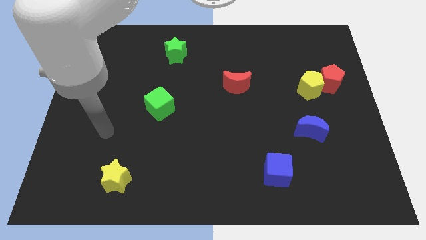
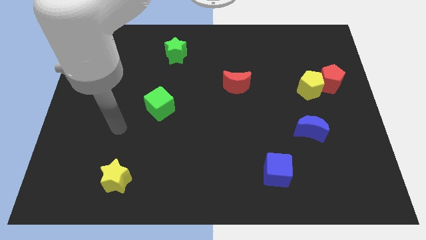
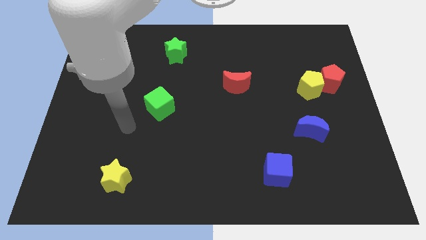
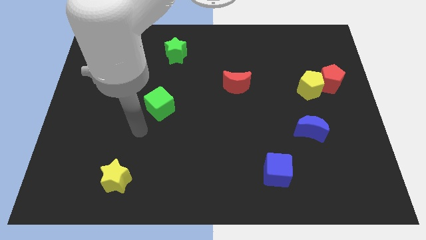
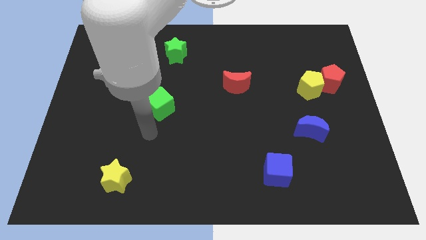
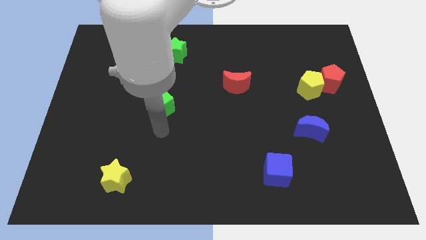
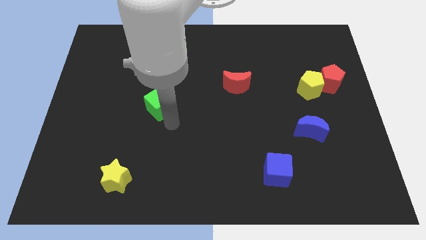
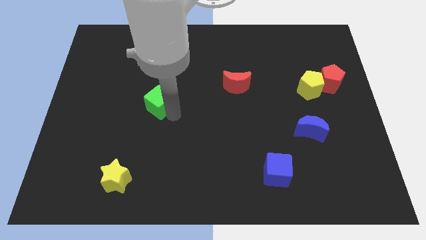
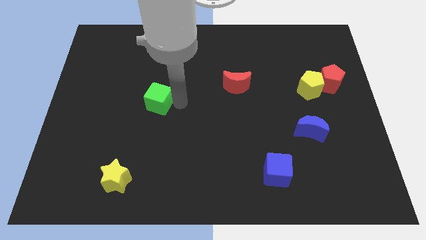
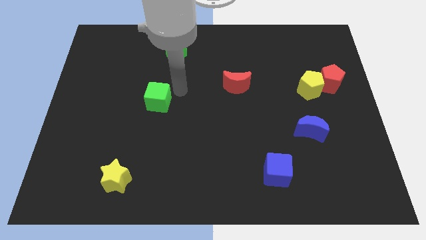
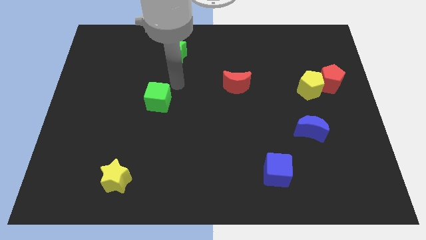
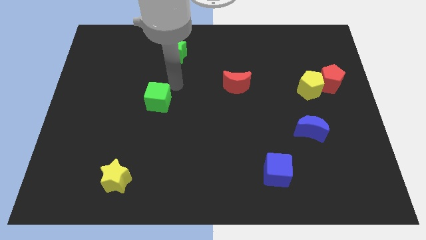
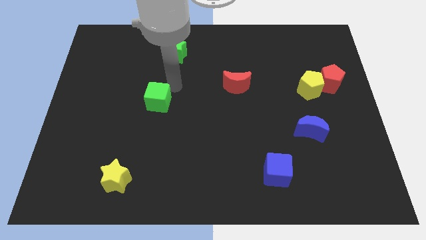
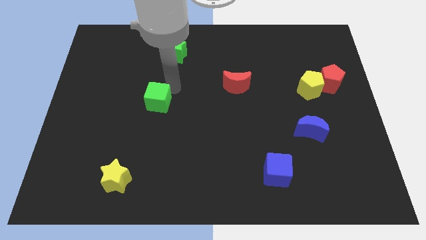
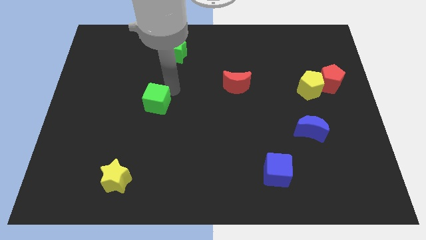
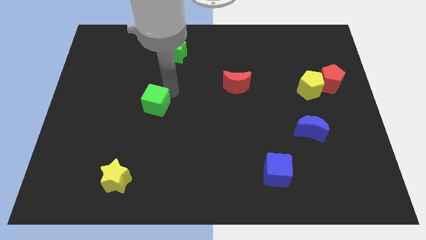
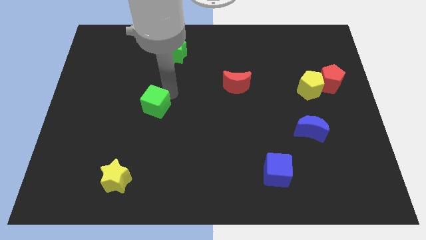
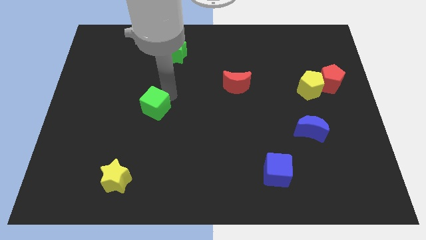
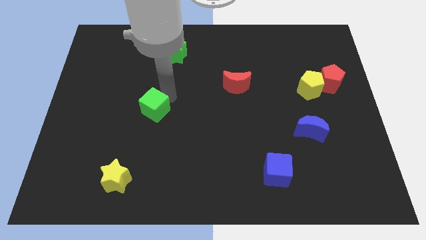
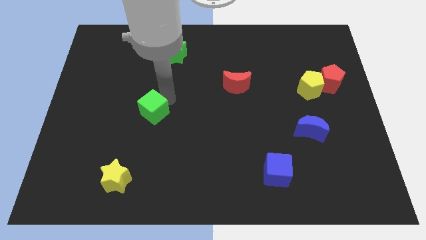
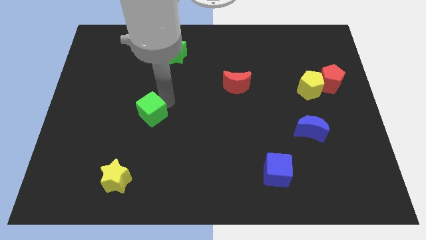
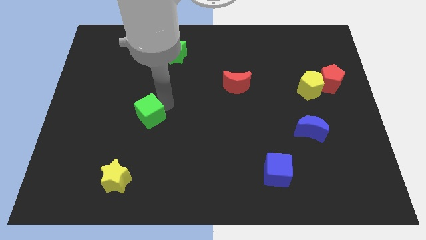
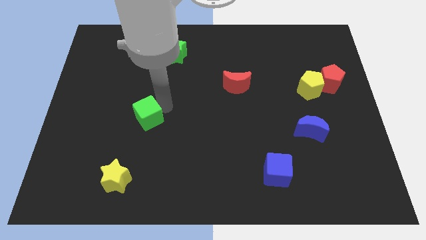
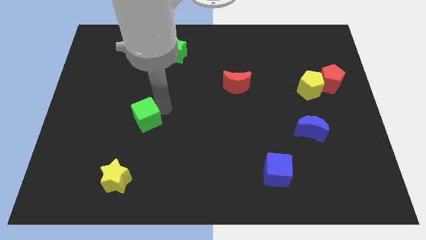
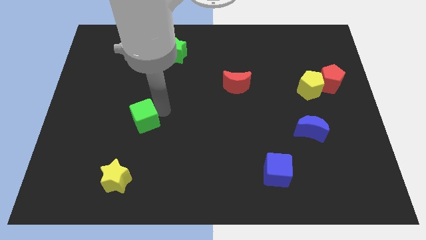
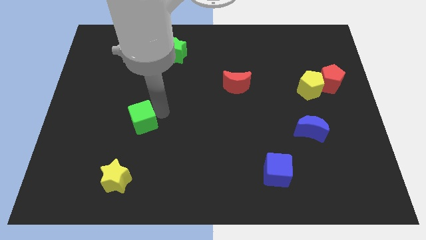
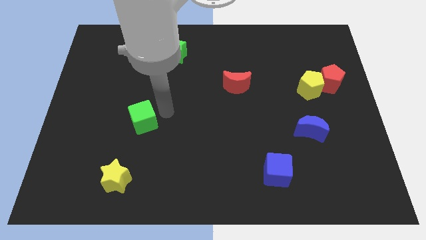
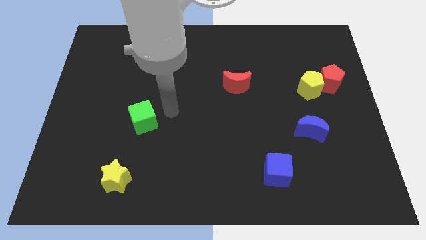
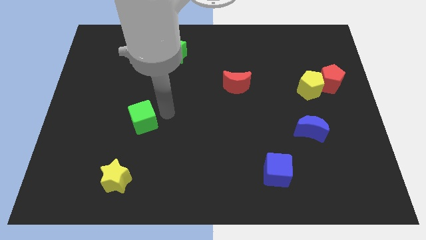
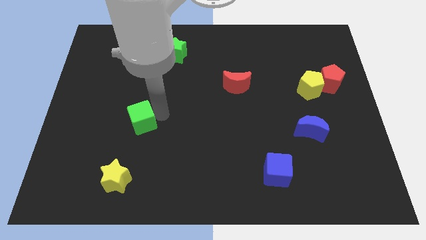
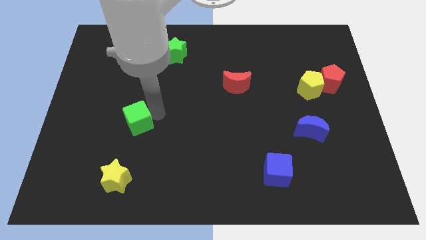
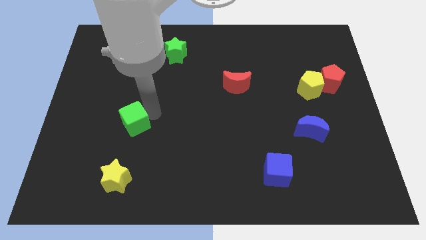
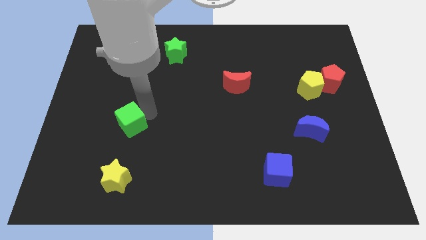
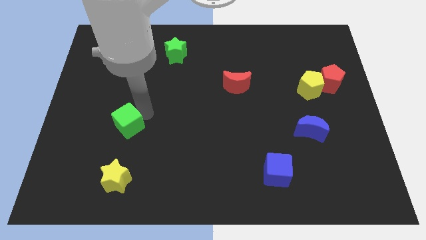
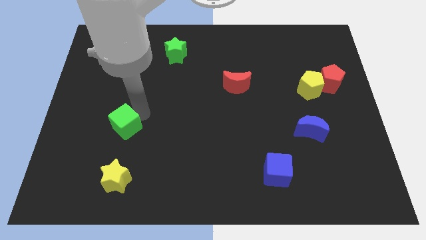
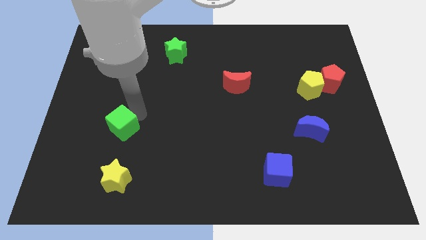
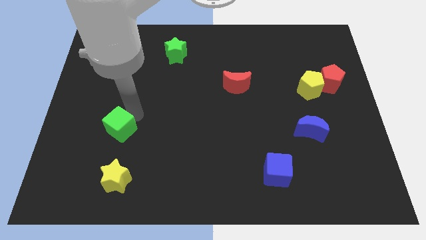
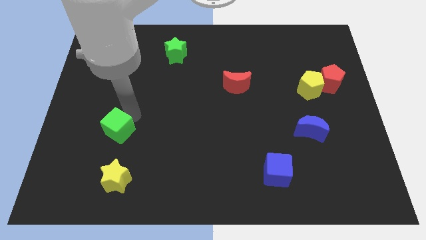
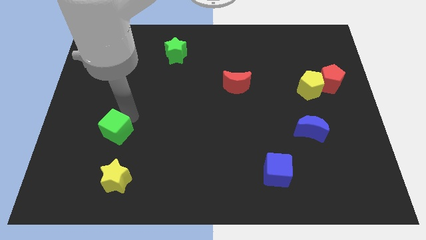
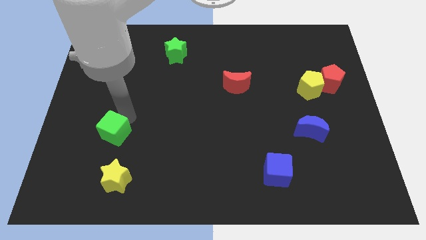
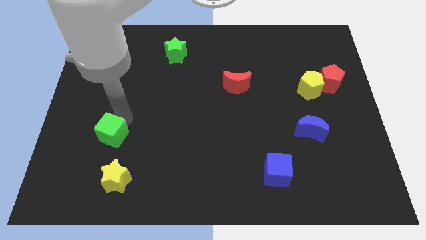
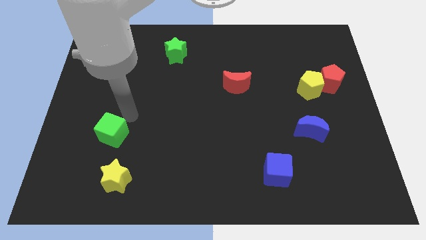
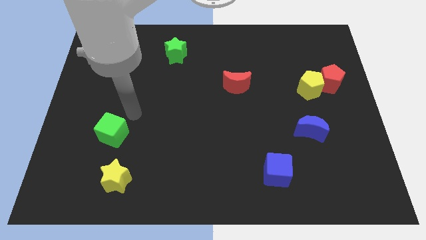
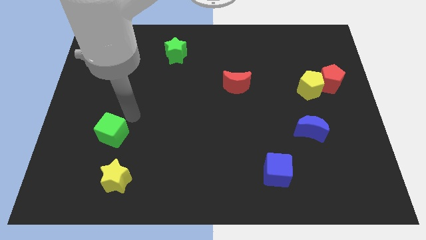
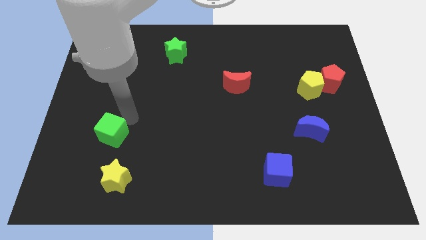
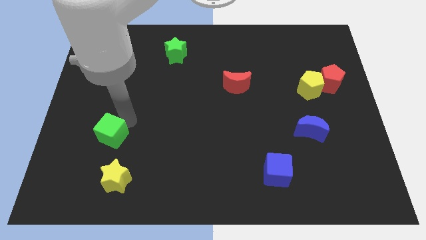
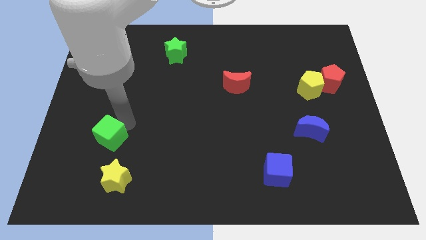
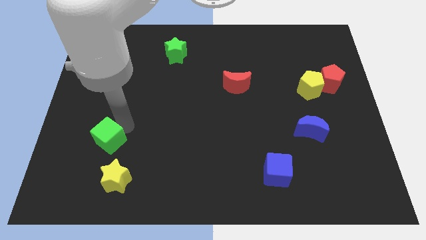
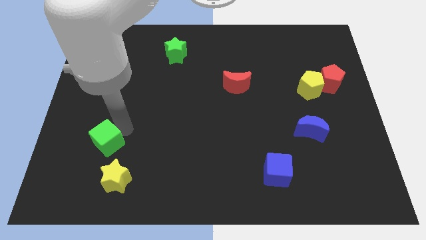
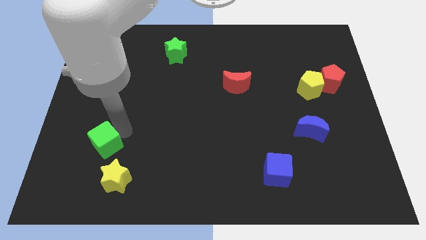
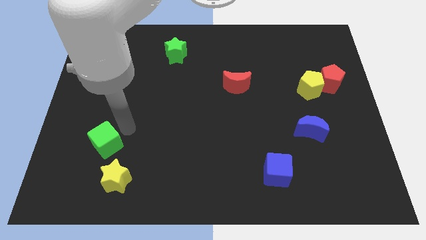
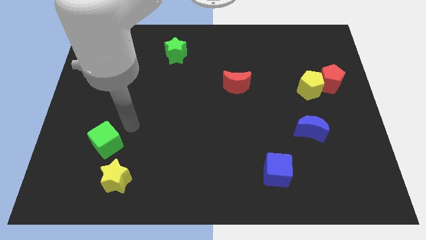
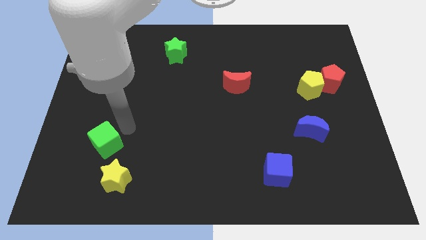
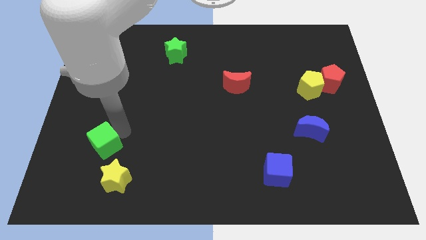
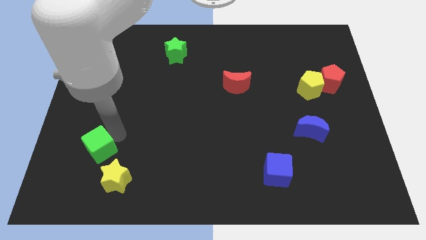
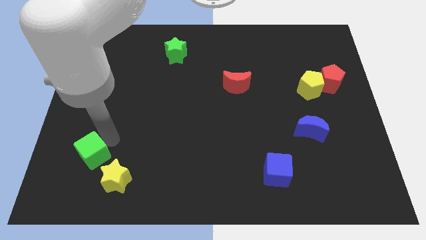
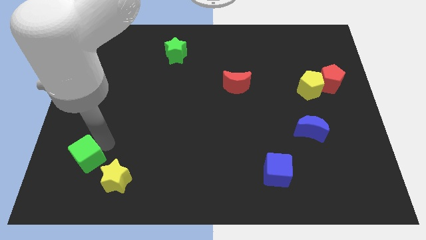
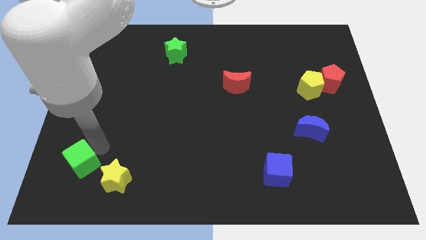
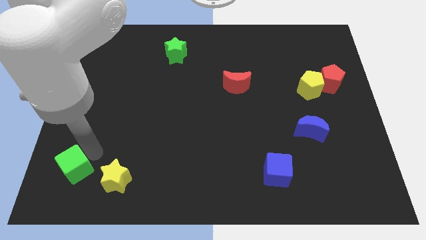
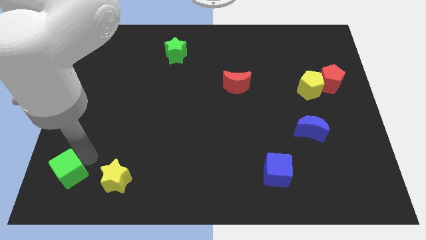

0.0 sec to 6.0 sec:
slide the green cube to the bottom left corner

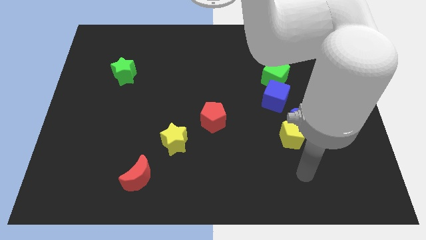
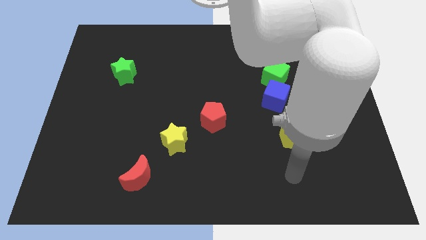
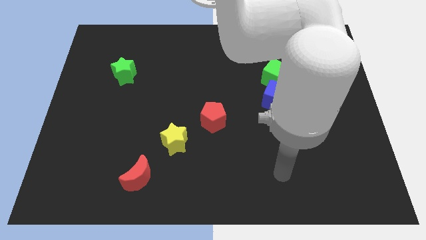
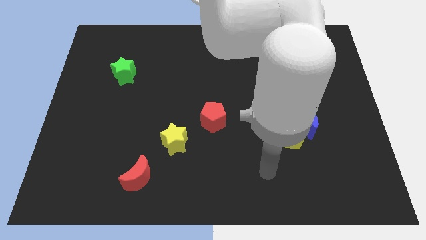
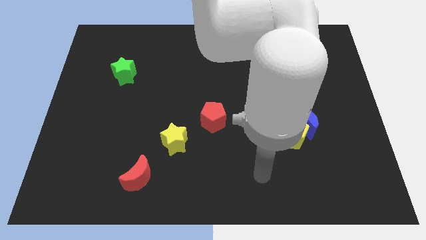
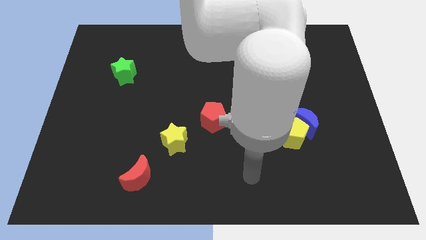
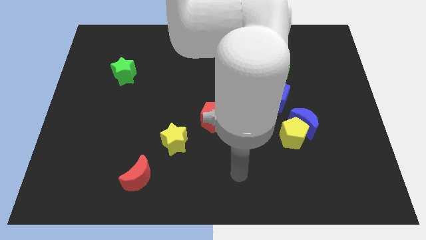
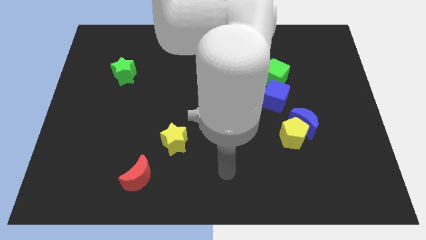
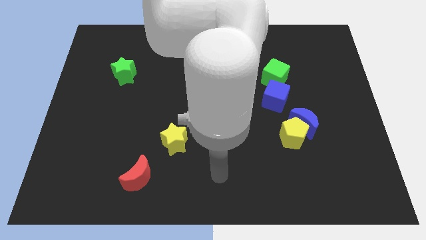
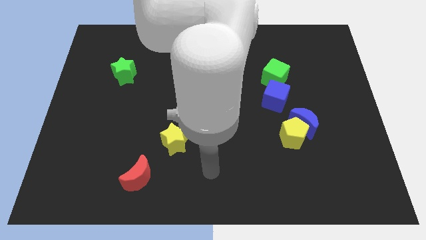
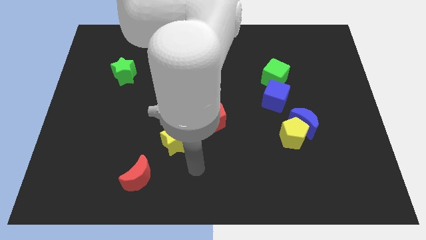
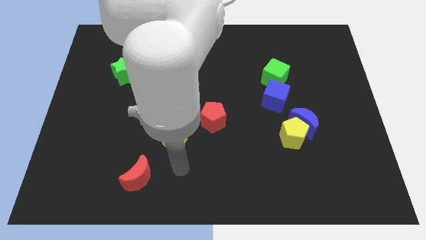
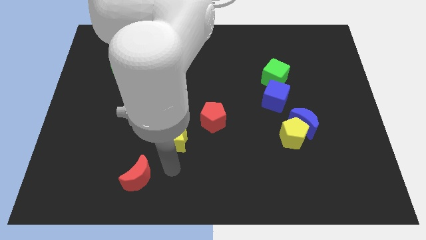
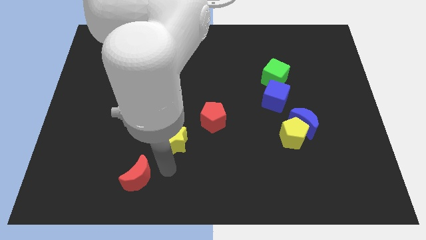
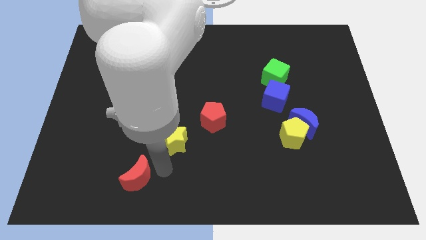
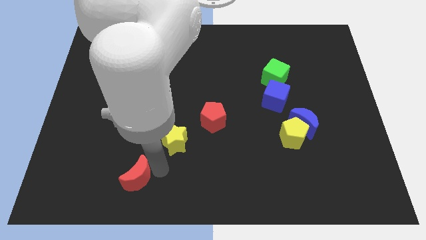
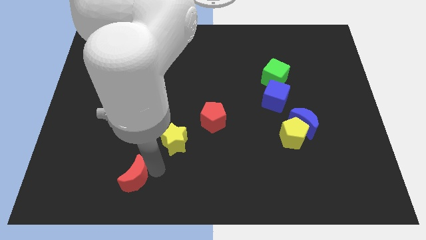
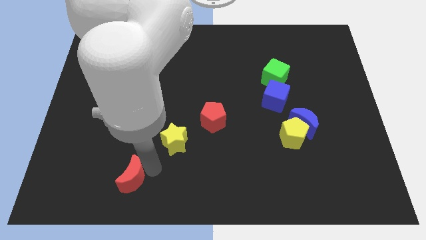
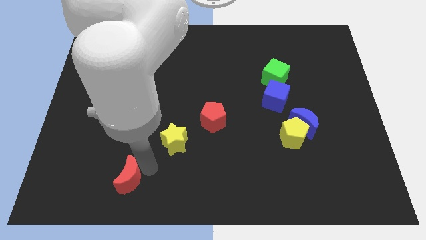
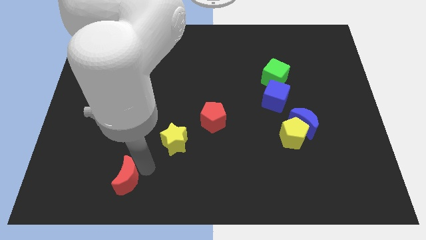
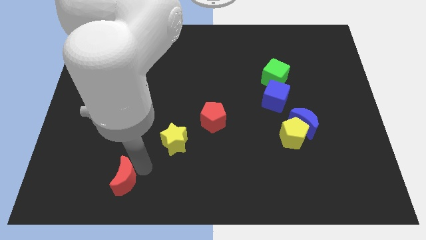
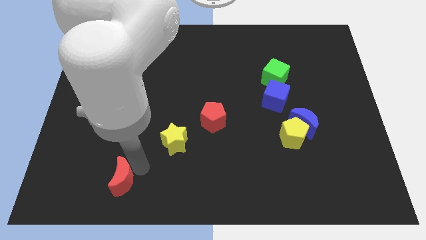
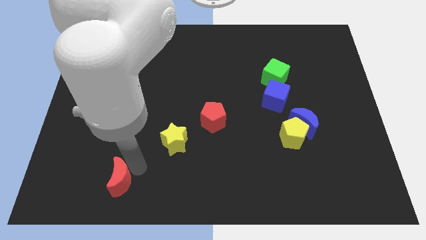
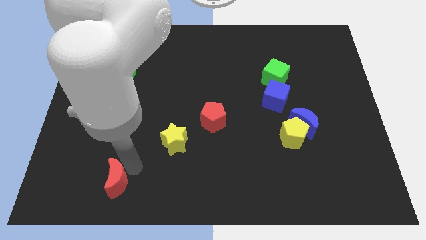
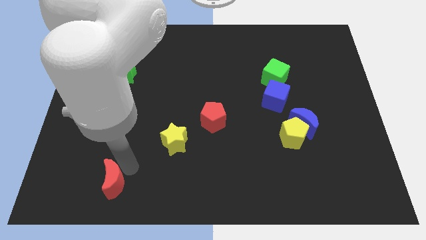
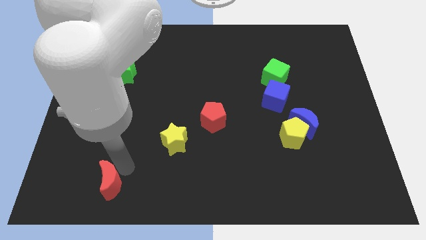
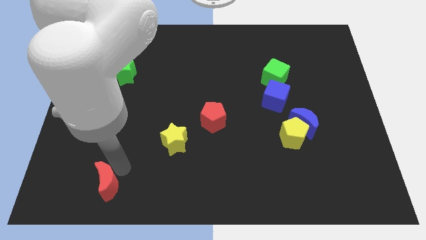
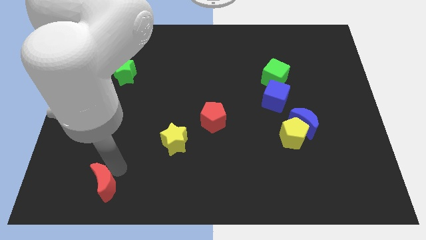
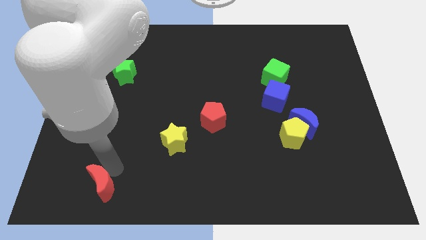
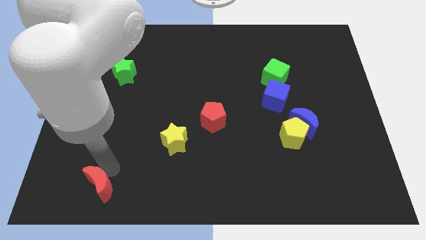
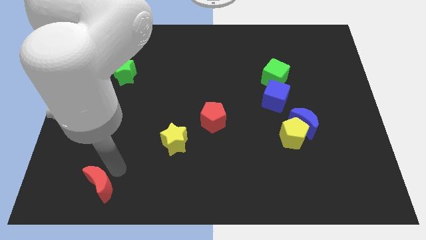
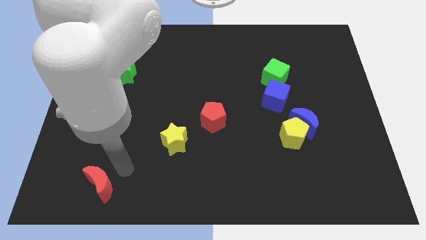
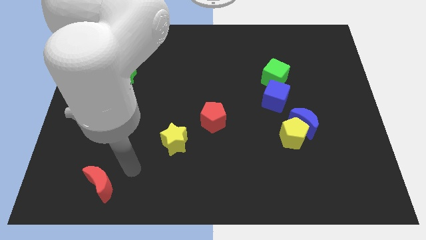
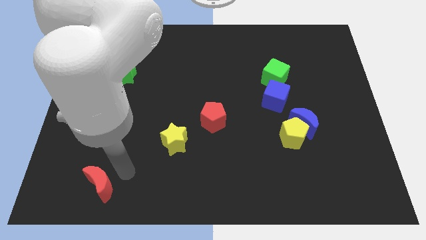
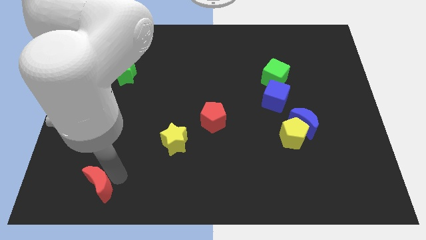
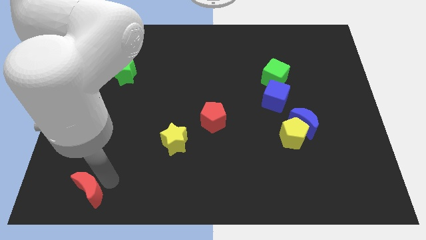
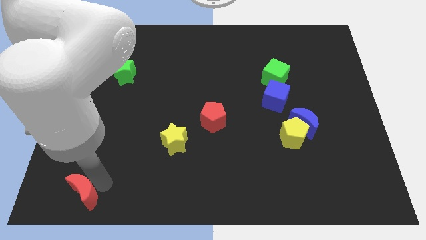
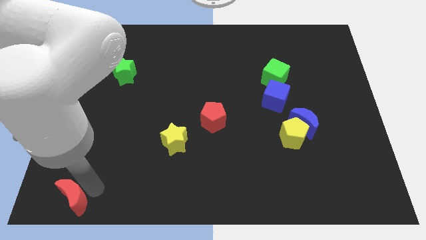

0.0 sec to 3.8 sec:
put the red moon to the bottom left corner
